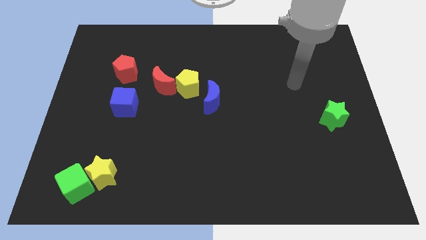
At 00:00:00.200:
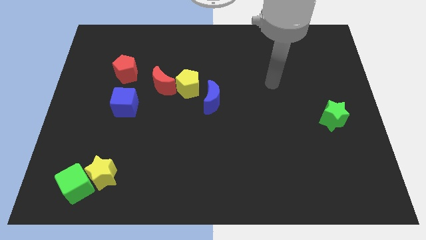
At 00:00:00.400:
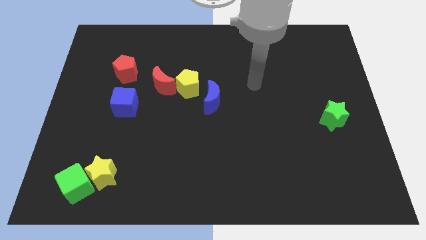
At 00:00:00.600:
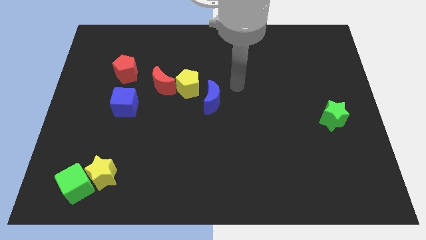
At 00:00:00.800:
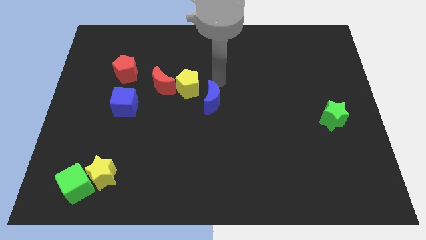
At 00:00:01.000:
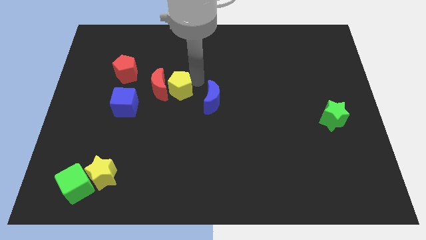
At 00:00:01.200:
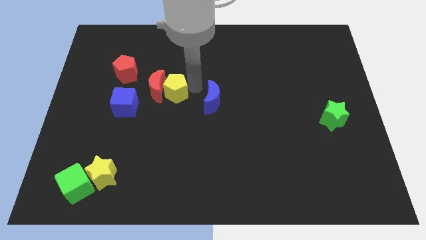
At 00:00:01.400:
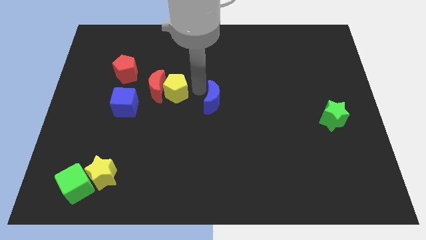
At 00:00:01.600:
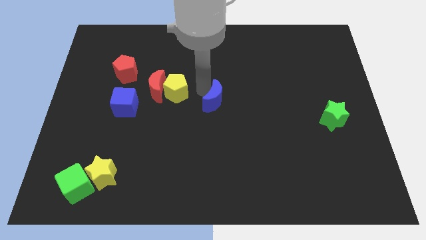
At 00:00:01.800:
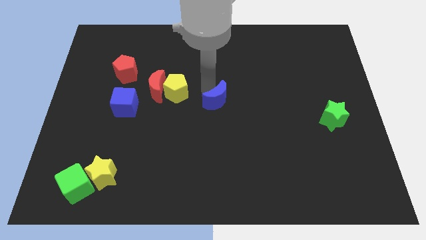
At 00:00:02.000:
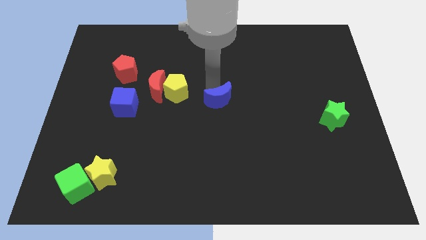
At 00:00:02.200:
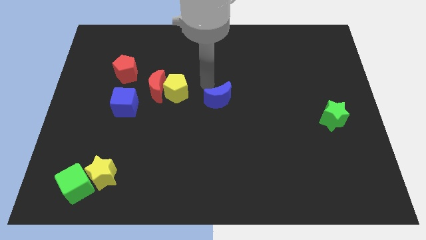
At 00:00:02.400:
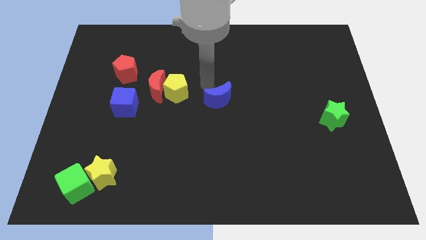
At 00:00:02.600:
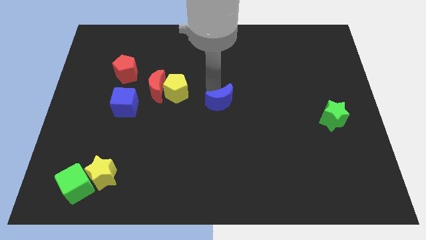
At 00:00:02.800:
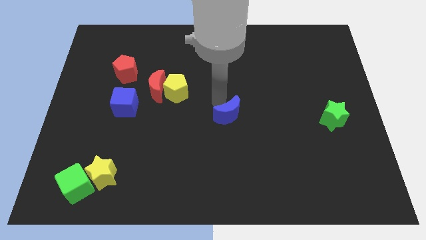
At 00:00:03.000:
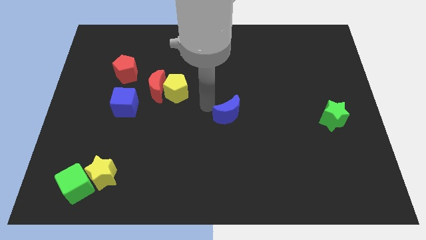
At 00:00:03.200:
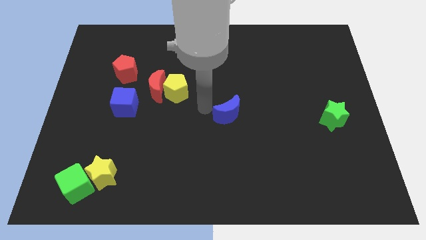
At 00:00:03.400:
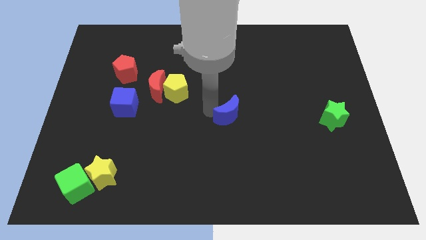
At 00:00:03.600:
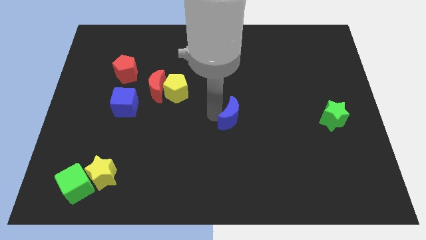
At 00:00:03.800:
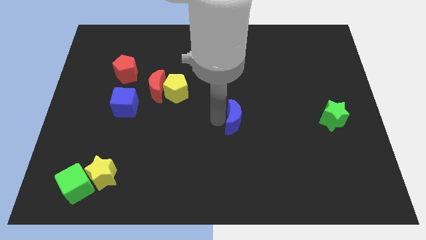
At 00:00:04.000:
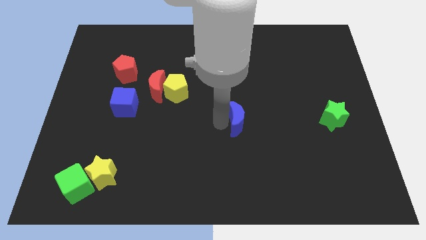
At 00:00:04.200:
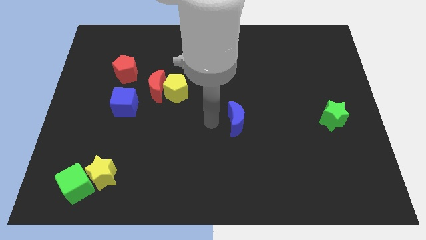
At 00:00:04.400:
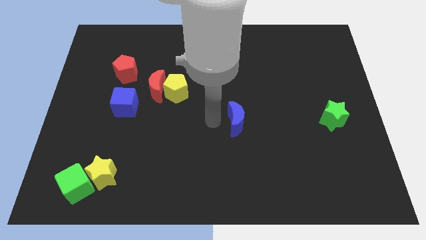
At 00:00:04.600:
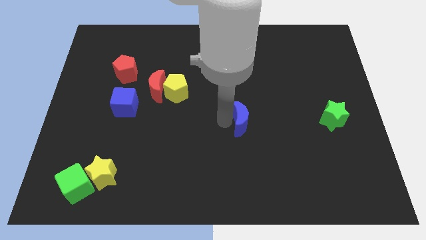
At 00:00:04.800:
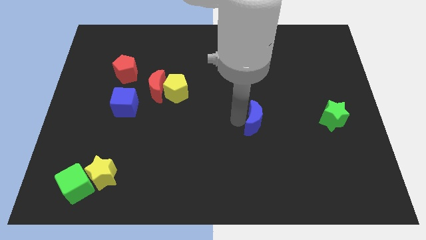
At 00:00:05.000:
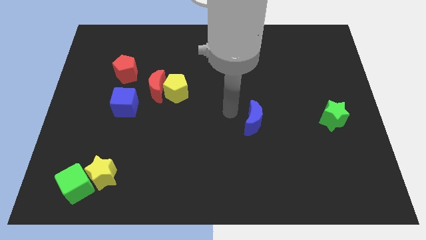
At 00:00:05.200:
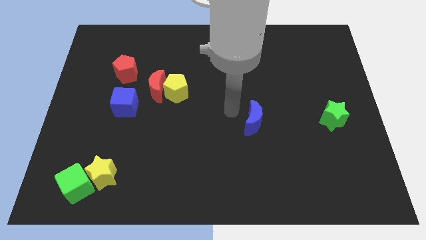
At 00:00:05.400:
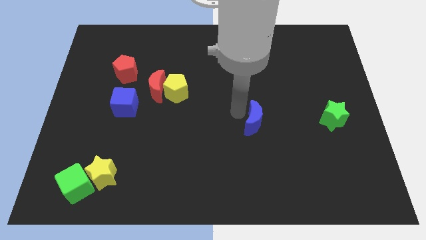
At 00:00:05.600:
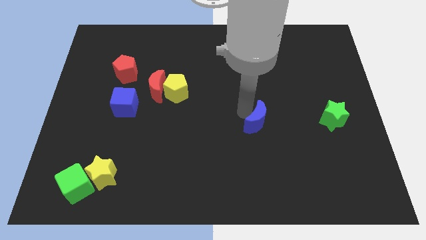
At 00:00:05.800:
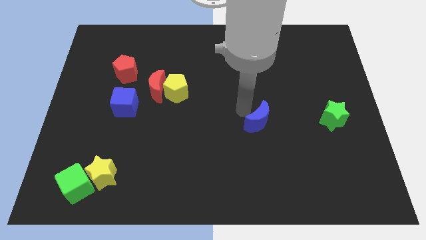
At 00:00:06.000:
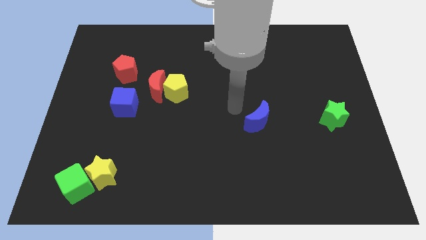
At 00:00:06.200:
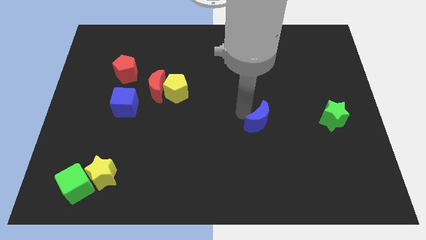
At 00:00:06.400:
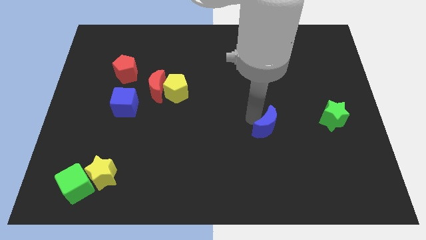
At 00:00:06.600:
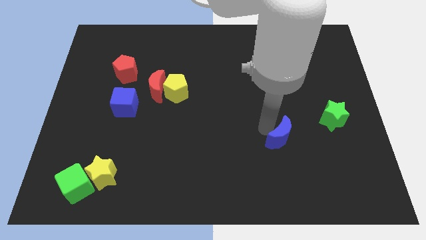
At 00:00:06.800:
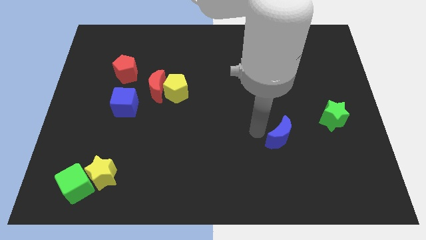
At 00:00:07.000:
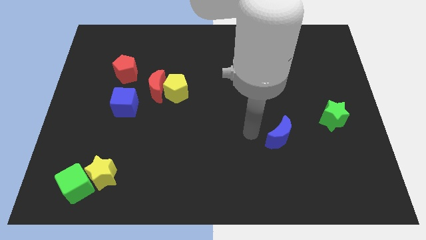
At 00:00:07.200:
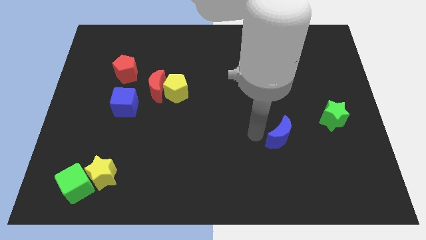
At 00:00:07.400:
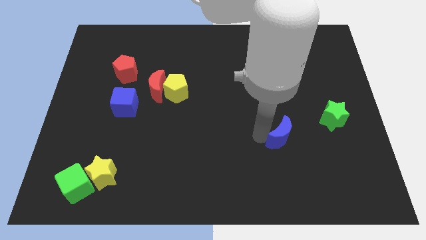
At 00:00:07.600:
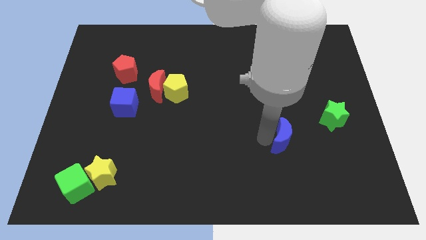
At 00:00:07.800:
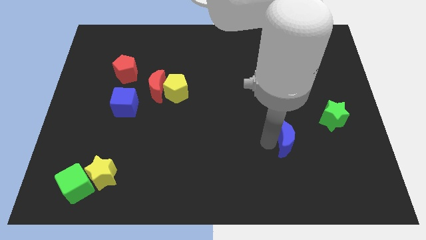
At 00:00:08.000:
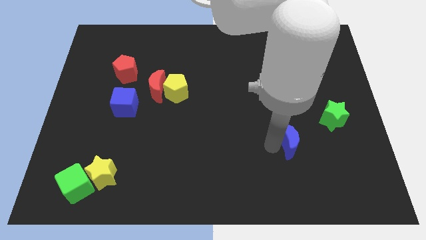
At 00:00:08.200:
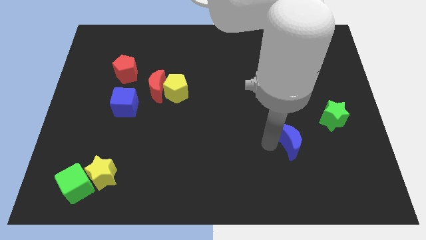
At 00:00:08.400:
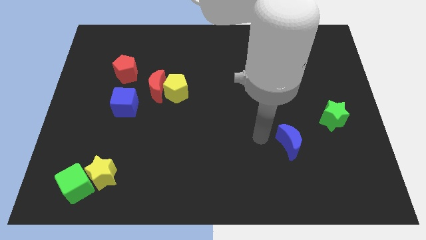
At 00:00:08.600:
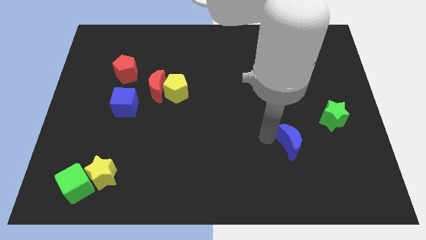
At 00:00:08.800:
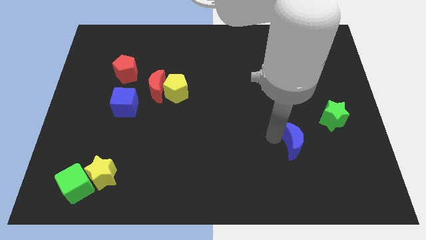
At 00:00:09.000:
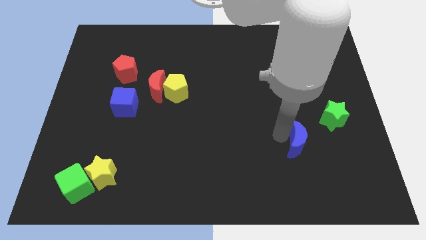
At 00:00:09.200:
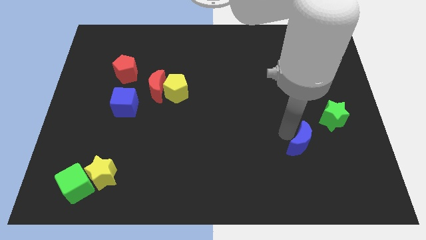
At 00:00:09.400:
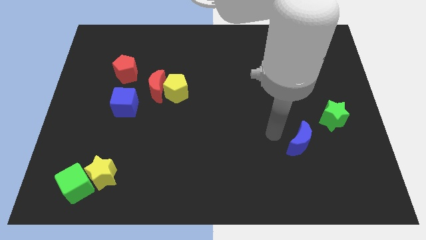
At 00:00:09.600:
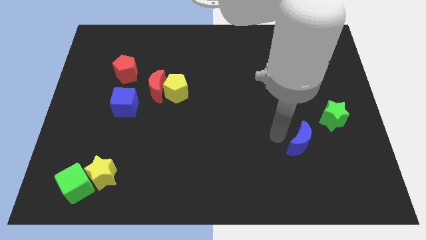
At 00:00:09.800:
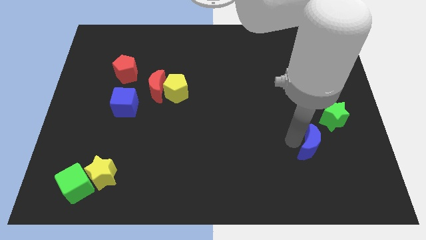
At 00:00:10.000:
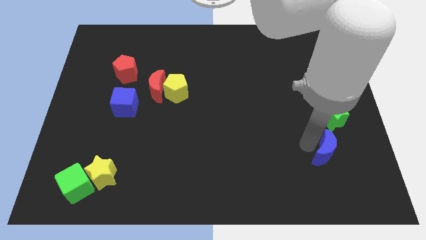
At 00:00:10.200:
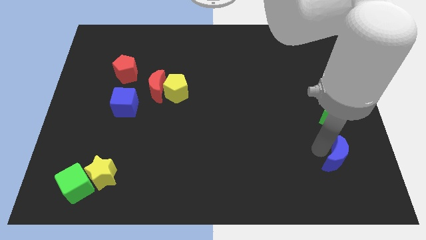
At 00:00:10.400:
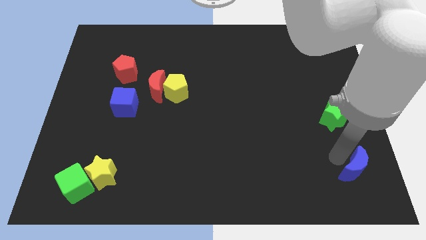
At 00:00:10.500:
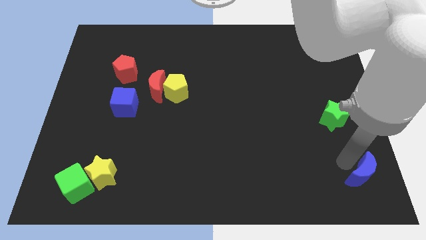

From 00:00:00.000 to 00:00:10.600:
push the blue moon to the bottom right
